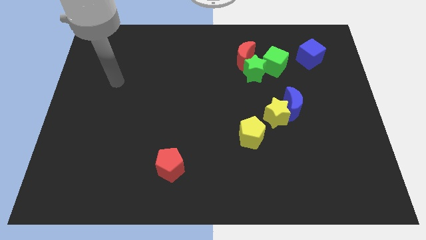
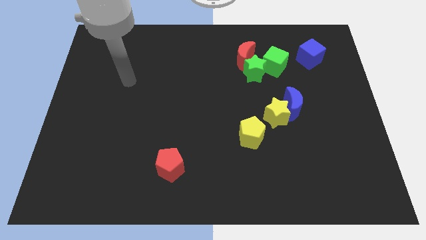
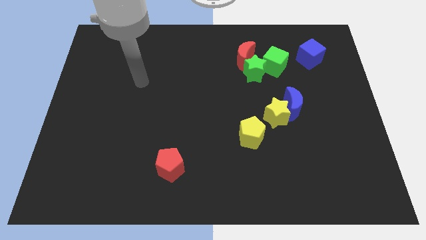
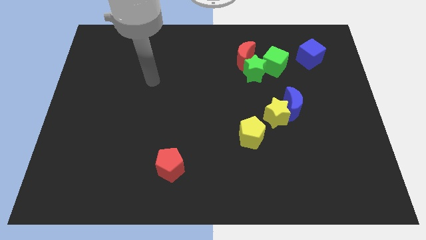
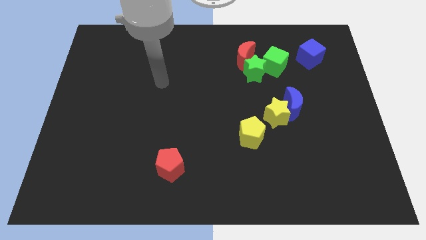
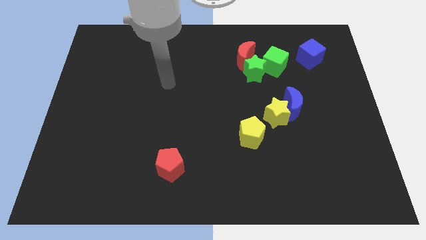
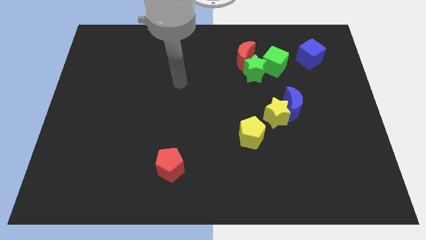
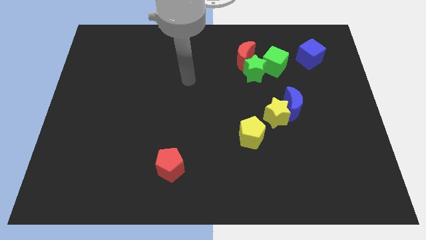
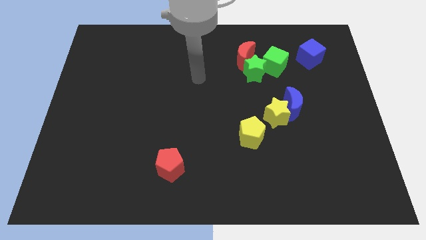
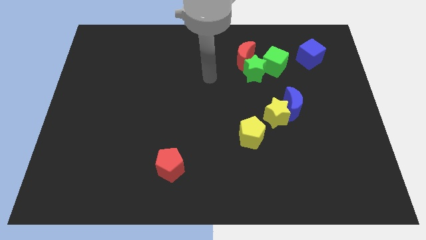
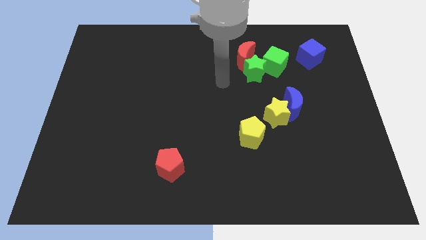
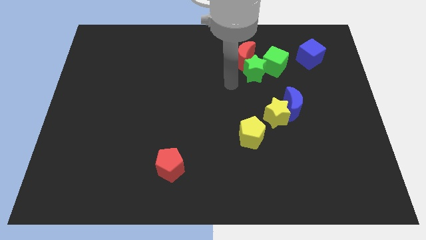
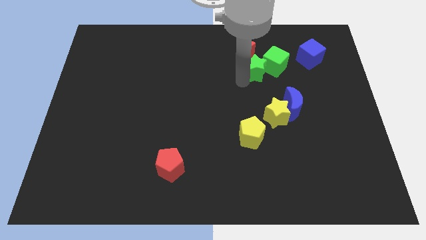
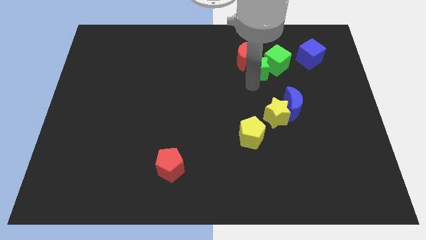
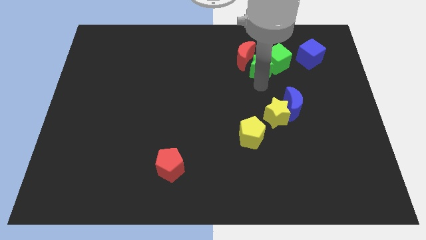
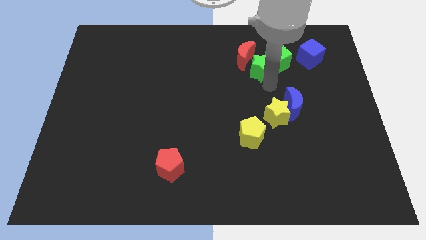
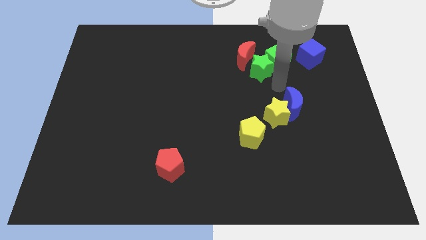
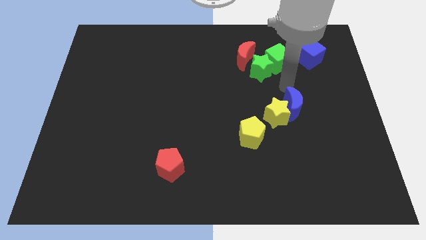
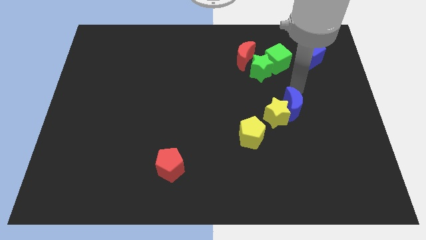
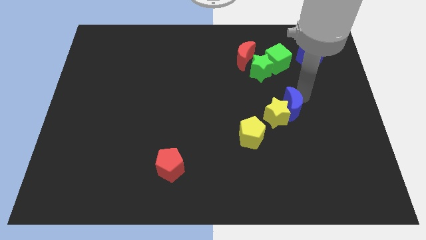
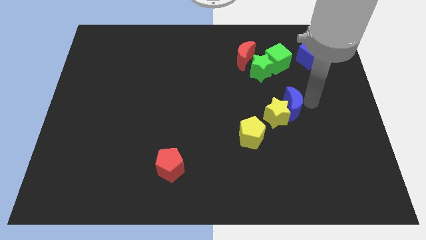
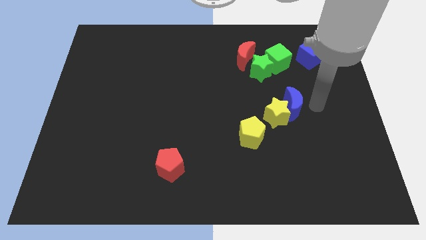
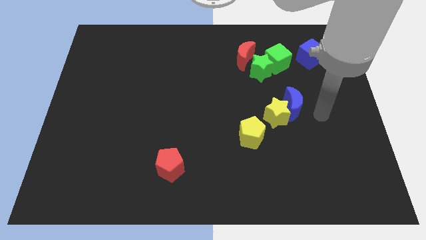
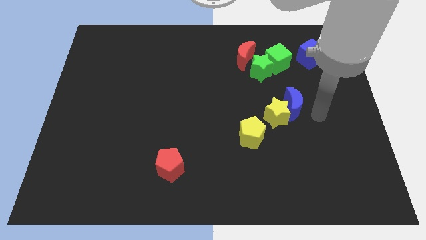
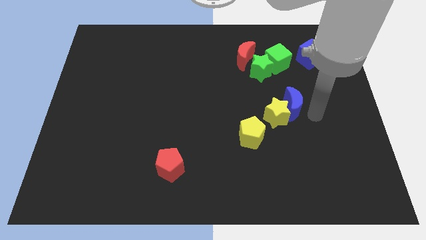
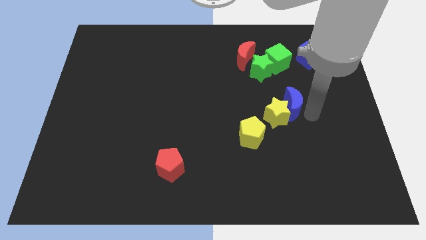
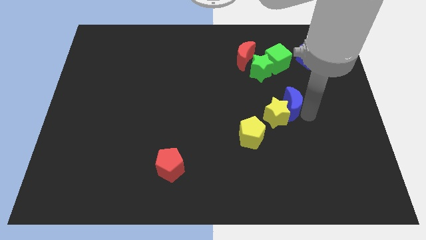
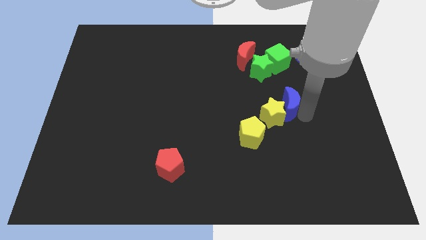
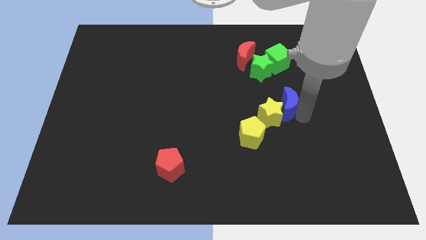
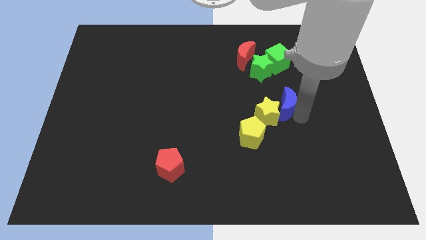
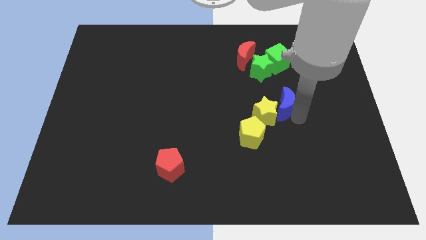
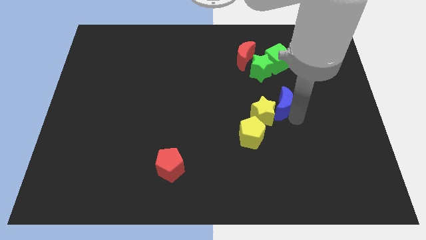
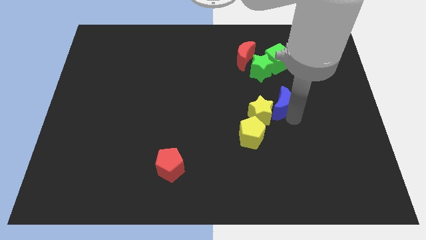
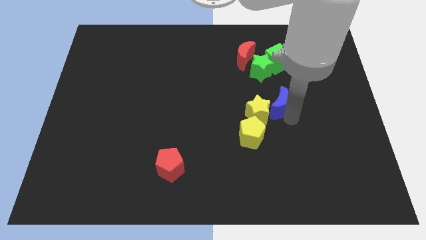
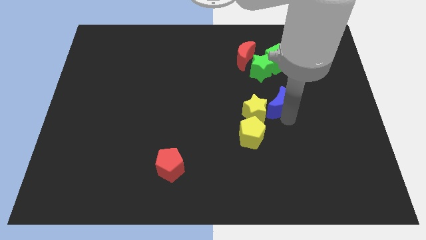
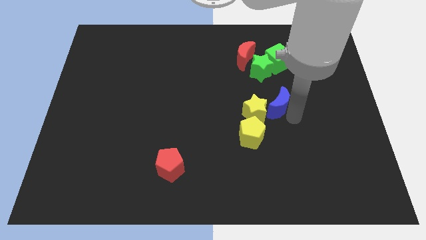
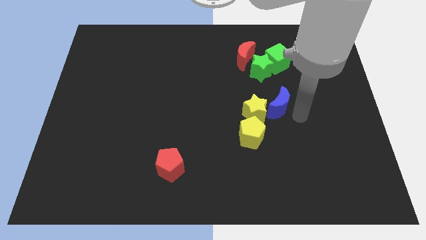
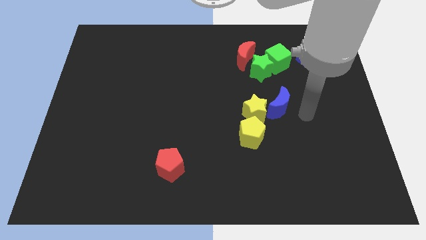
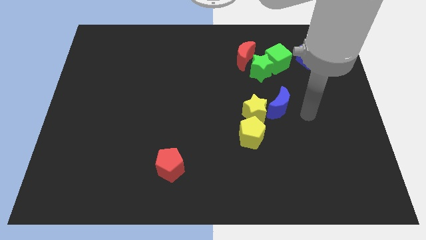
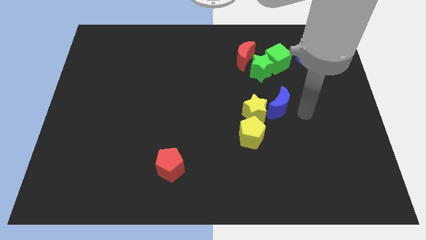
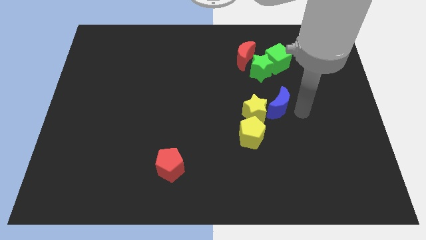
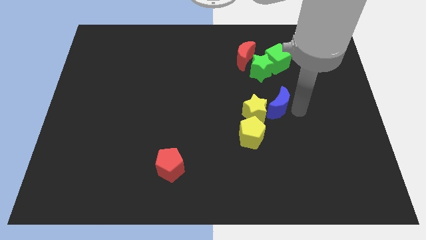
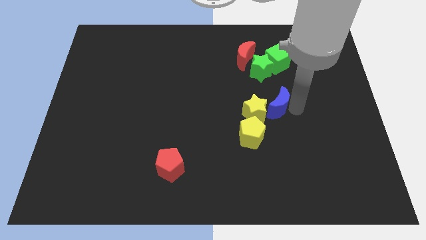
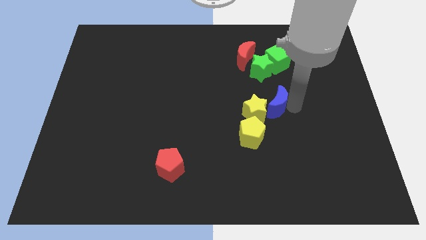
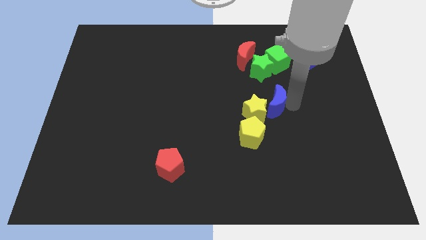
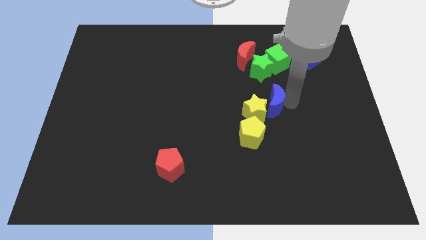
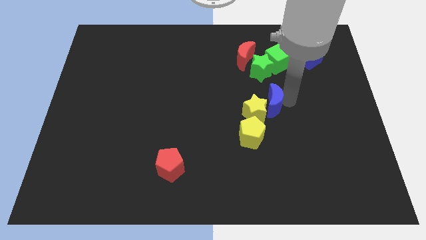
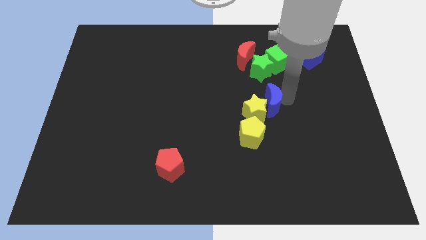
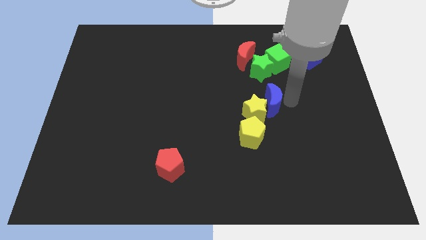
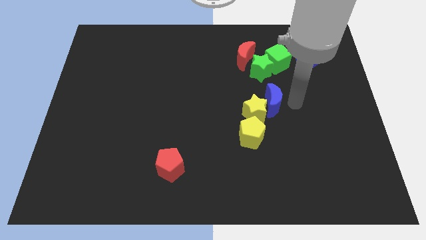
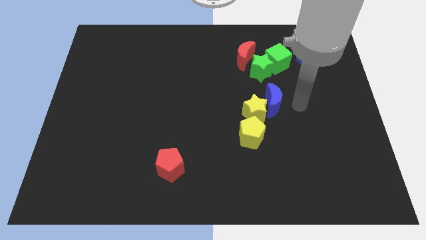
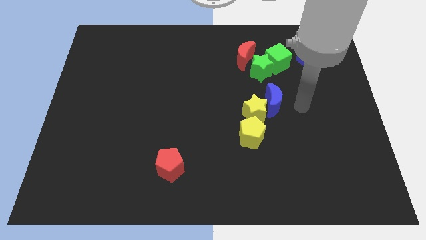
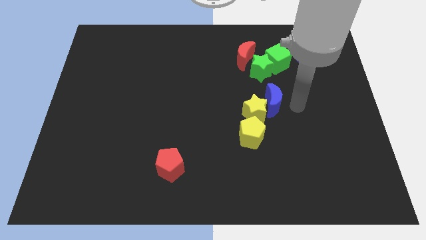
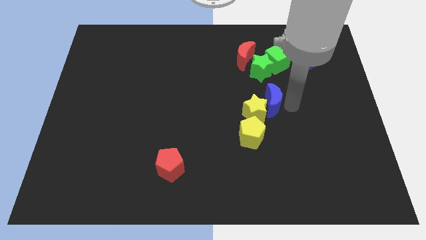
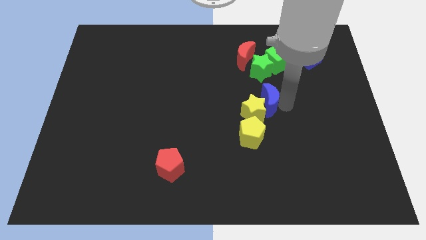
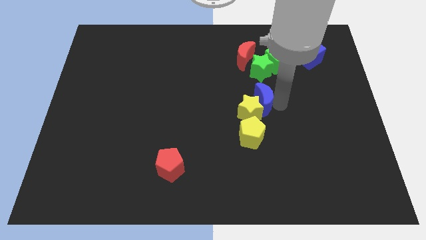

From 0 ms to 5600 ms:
push the blue moon to the middle
